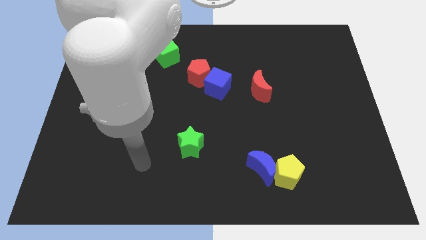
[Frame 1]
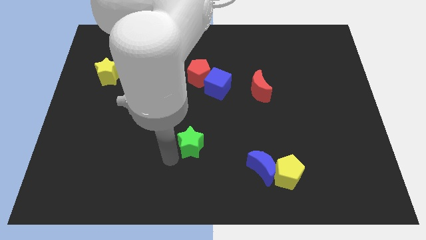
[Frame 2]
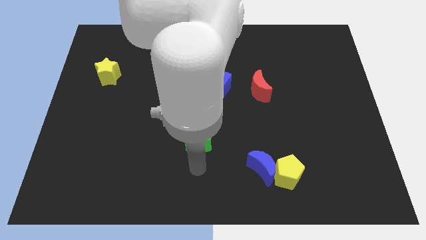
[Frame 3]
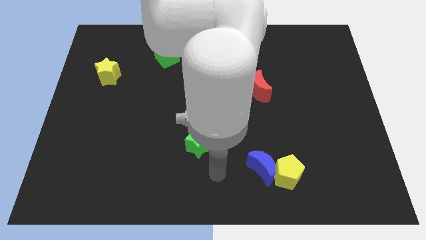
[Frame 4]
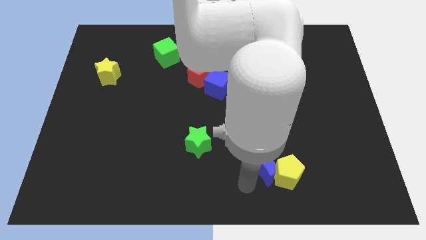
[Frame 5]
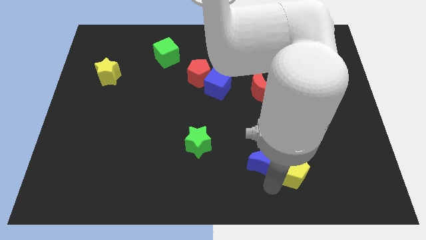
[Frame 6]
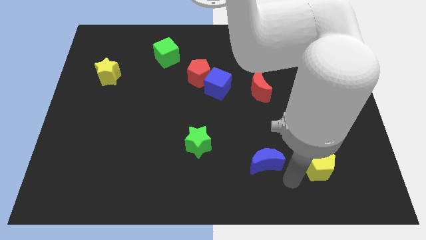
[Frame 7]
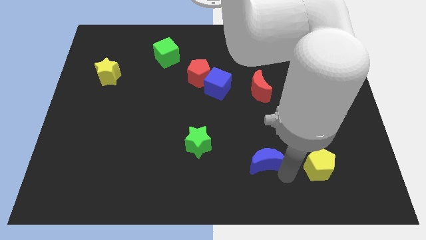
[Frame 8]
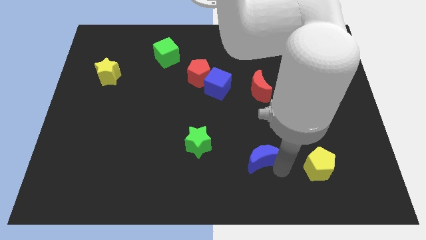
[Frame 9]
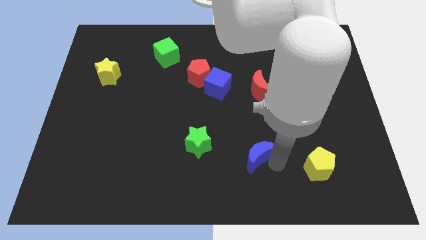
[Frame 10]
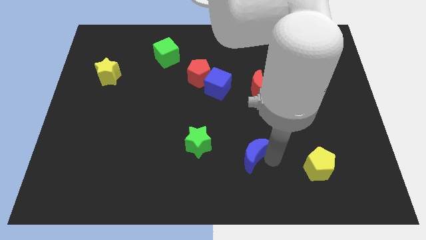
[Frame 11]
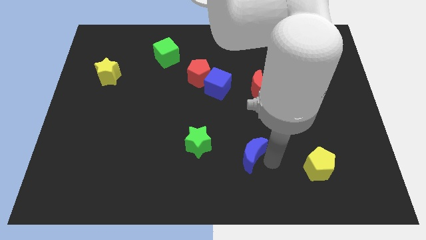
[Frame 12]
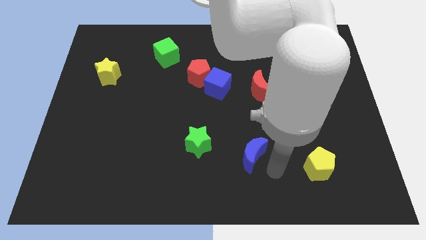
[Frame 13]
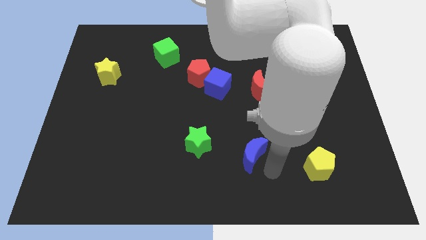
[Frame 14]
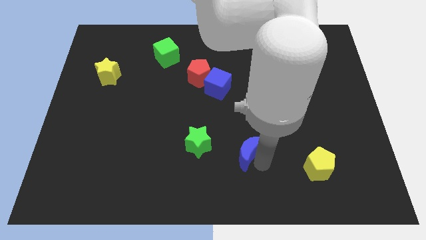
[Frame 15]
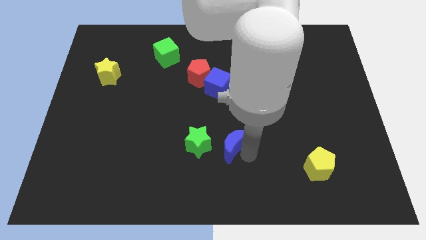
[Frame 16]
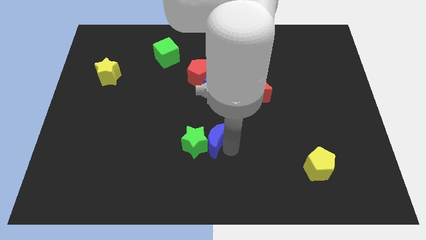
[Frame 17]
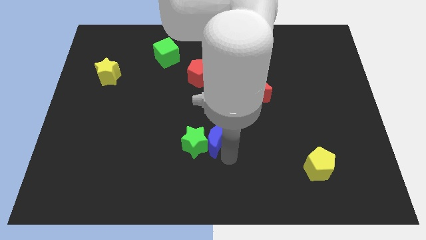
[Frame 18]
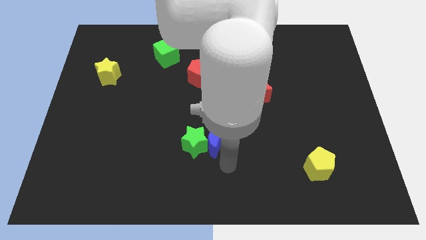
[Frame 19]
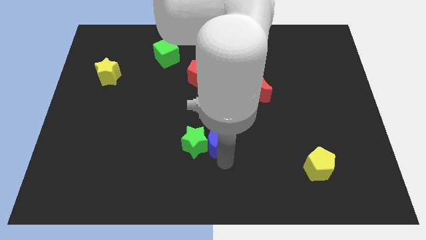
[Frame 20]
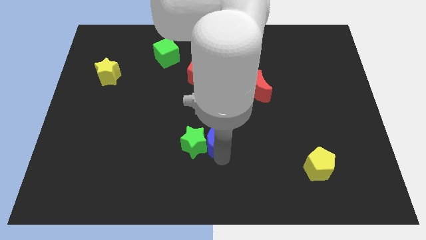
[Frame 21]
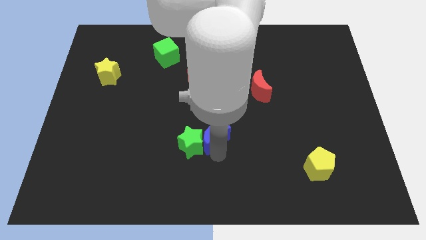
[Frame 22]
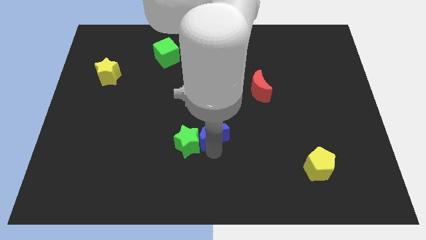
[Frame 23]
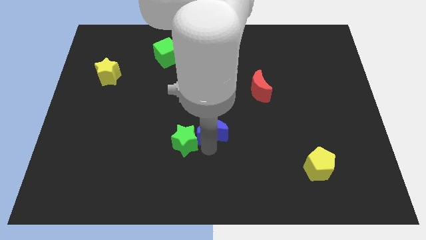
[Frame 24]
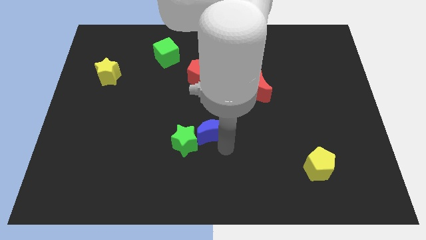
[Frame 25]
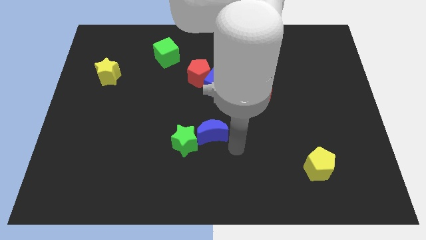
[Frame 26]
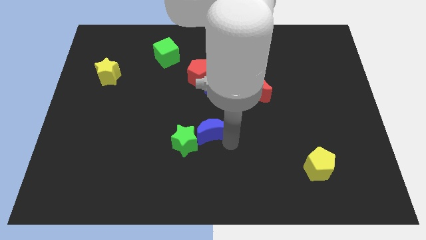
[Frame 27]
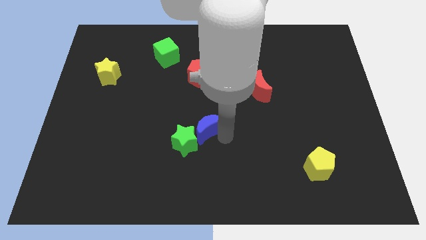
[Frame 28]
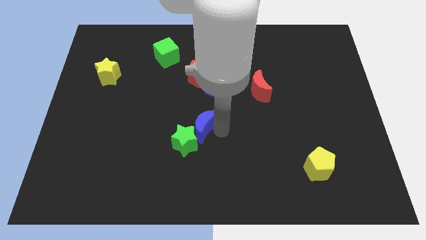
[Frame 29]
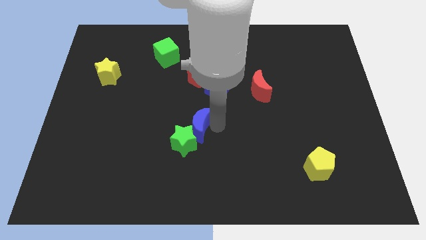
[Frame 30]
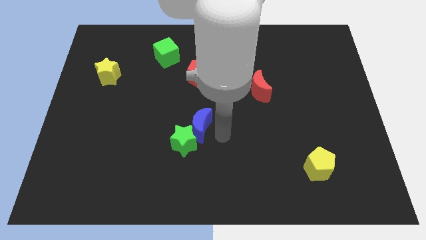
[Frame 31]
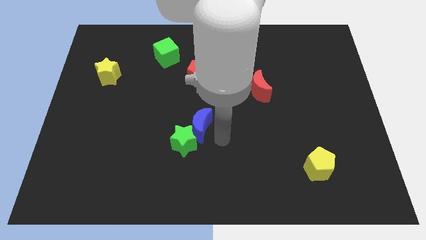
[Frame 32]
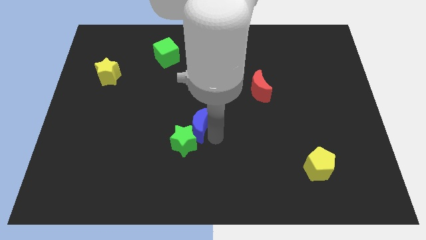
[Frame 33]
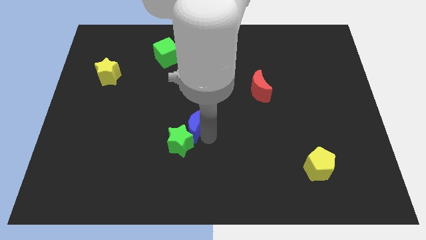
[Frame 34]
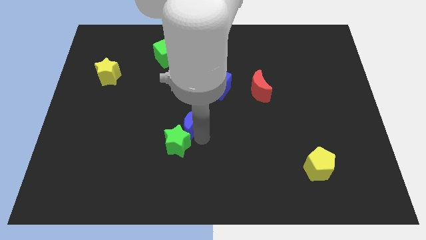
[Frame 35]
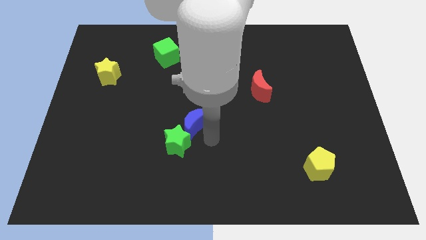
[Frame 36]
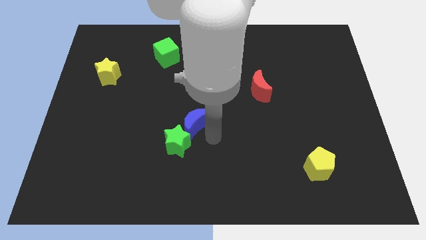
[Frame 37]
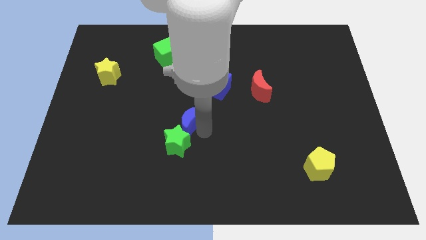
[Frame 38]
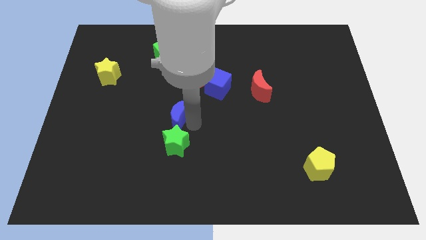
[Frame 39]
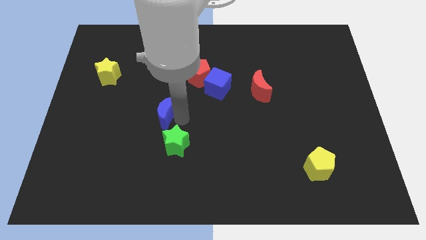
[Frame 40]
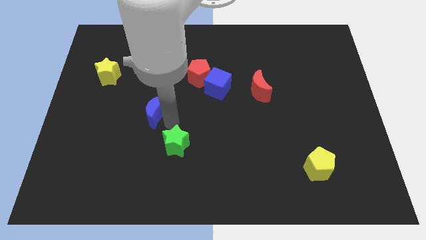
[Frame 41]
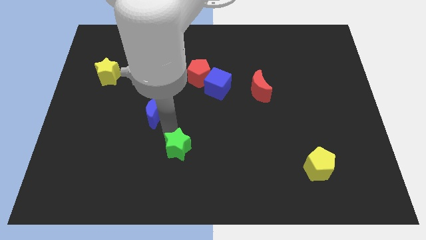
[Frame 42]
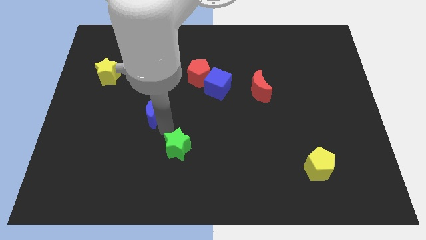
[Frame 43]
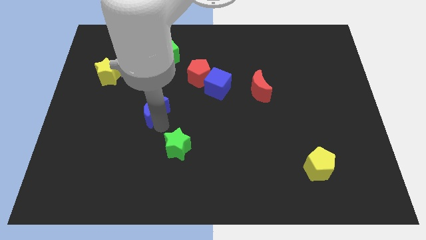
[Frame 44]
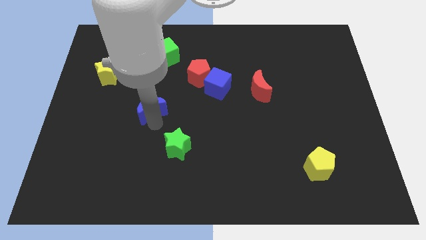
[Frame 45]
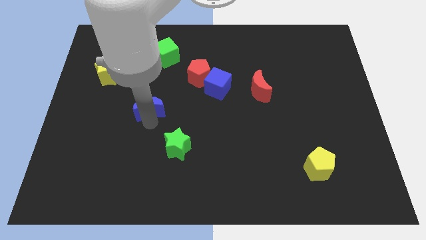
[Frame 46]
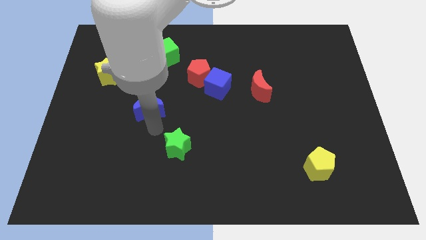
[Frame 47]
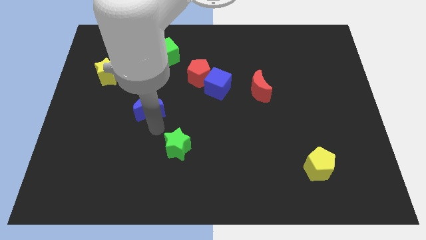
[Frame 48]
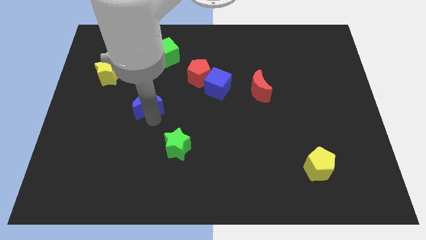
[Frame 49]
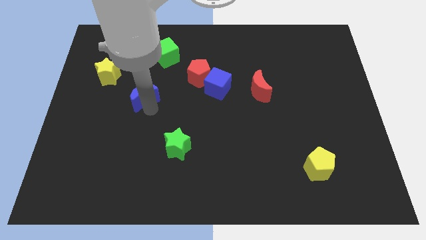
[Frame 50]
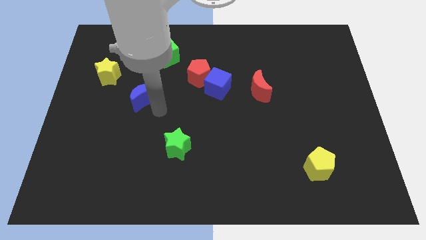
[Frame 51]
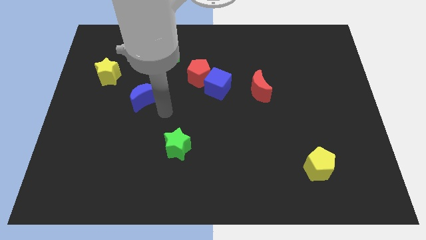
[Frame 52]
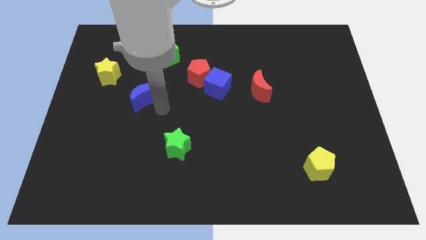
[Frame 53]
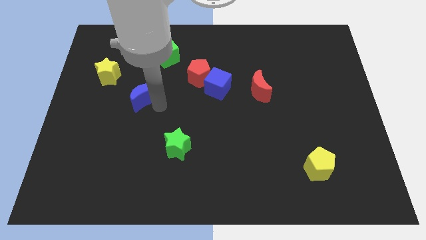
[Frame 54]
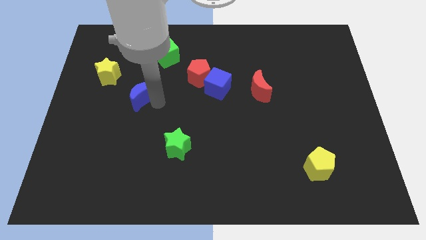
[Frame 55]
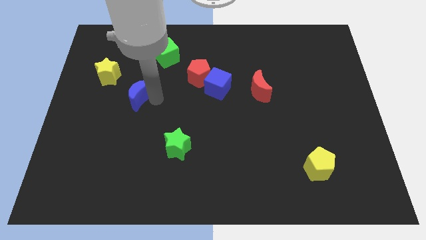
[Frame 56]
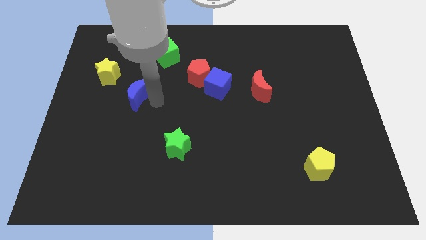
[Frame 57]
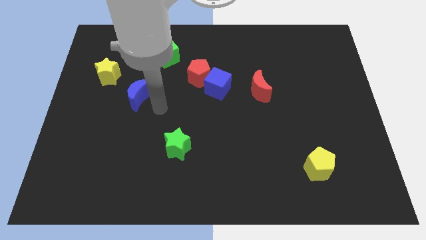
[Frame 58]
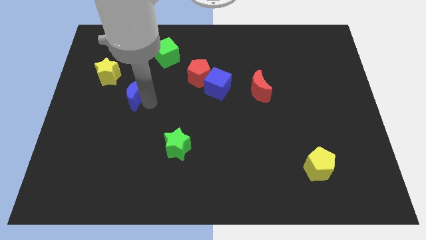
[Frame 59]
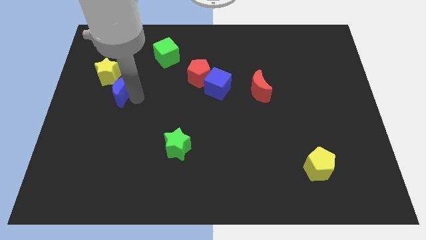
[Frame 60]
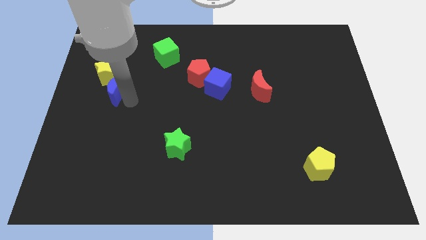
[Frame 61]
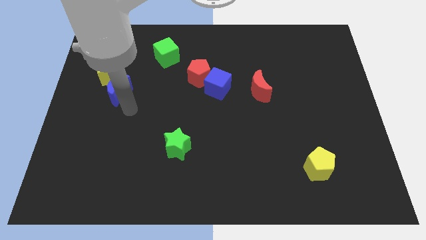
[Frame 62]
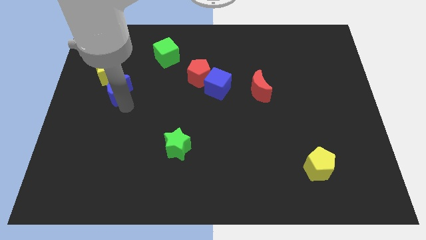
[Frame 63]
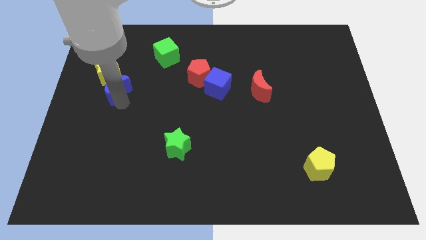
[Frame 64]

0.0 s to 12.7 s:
put the blue moon next to the yellow star

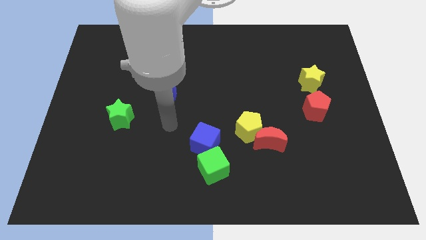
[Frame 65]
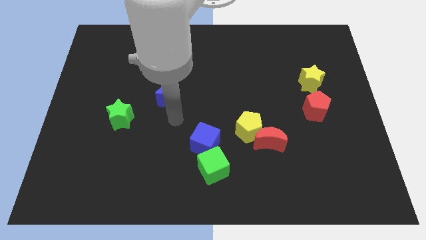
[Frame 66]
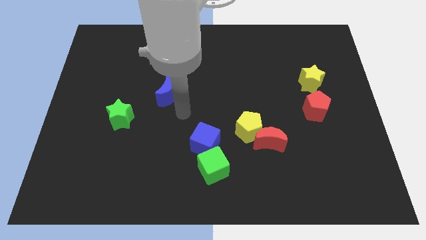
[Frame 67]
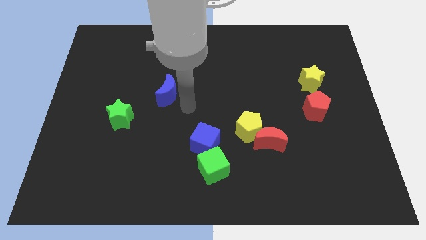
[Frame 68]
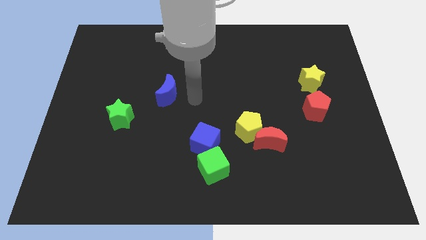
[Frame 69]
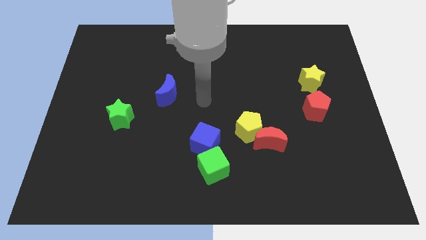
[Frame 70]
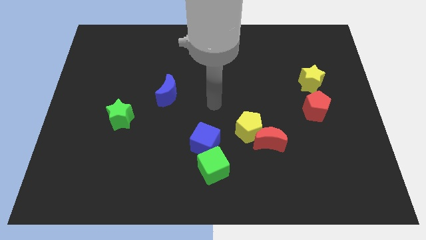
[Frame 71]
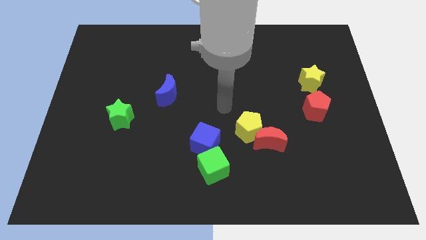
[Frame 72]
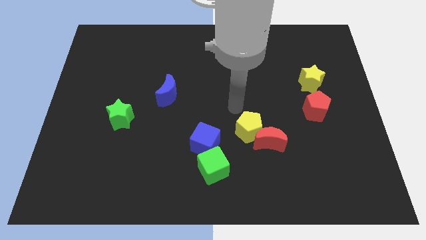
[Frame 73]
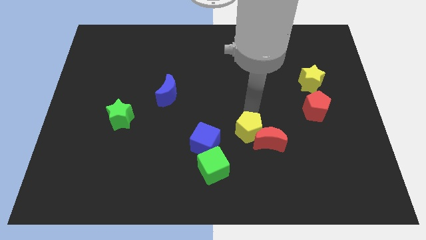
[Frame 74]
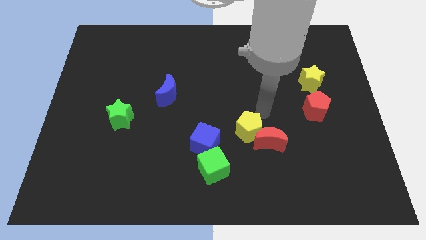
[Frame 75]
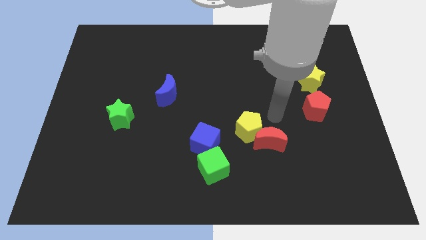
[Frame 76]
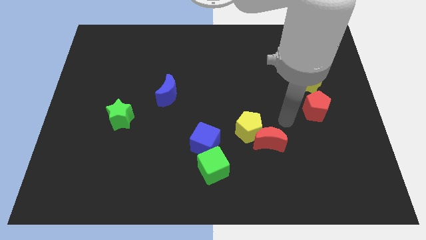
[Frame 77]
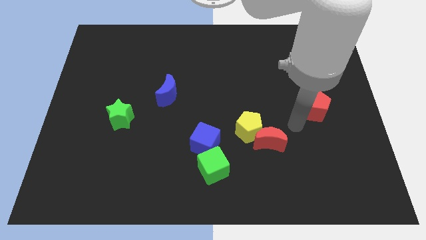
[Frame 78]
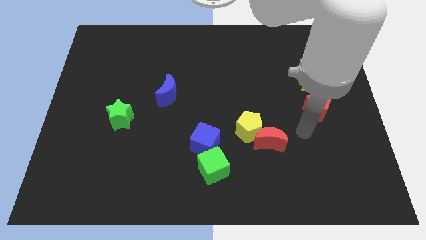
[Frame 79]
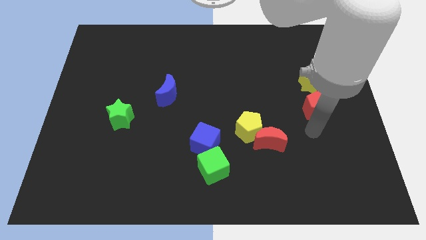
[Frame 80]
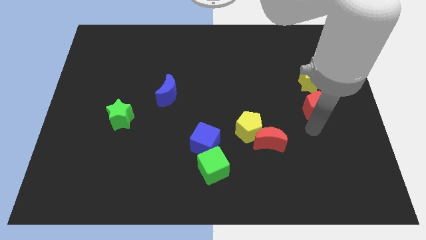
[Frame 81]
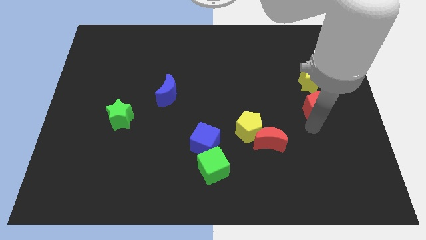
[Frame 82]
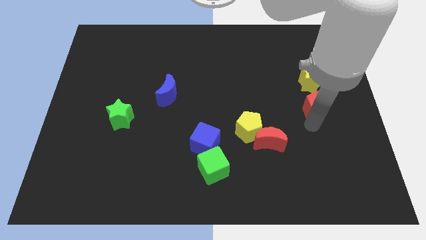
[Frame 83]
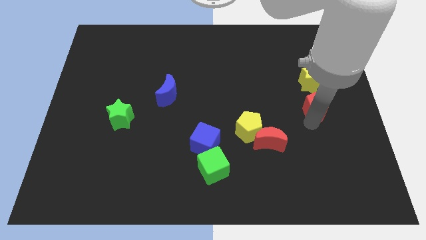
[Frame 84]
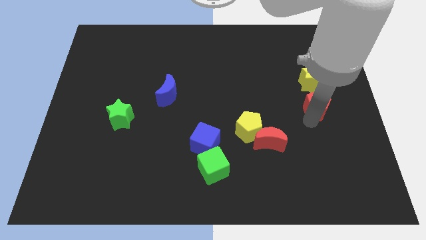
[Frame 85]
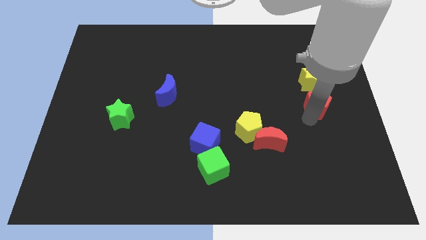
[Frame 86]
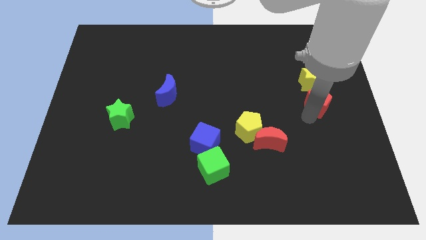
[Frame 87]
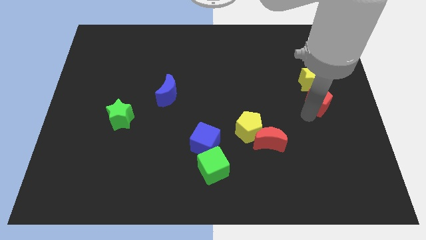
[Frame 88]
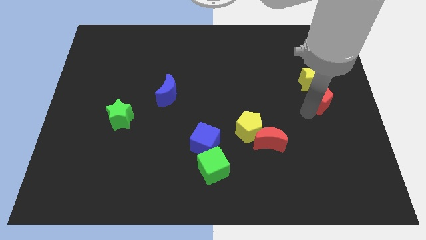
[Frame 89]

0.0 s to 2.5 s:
slide the red pentagon close to the yellow star
